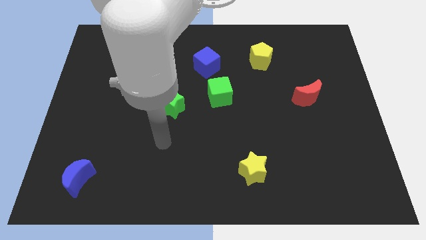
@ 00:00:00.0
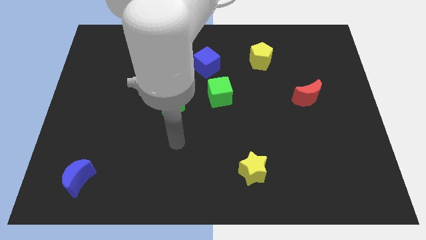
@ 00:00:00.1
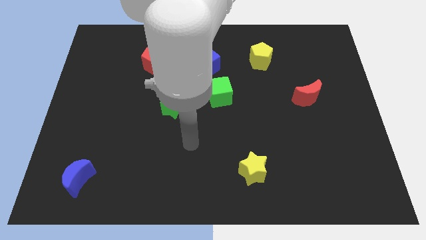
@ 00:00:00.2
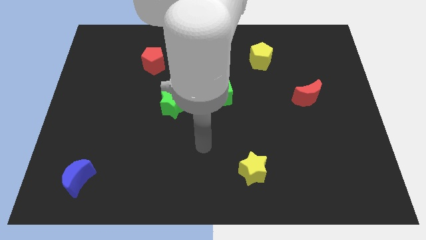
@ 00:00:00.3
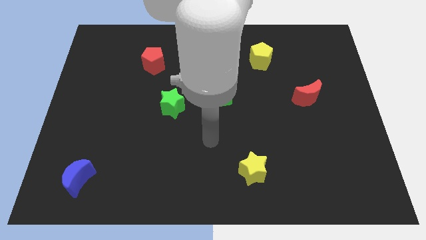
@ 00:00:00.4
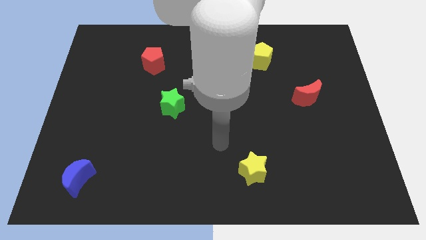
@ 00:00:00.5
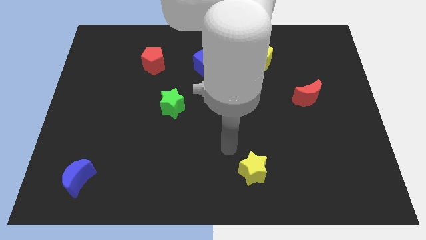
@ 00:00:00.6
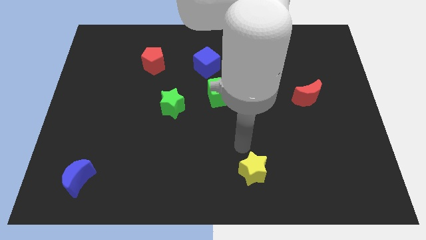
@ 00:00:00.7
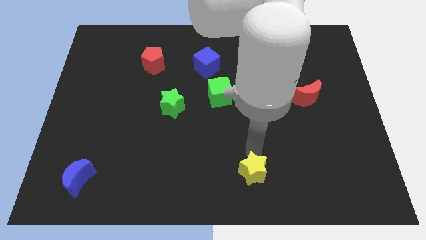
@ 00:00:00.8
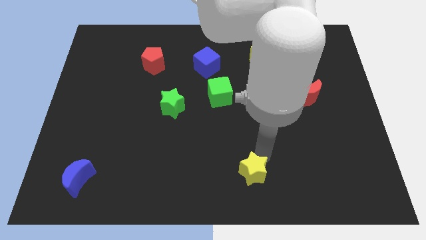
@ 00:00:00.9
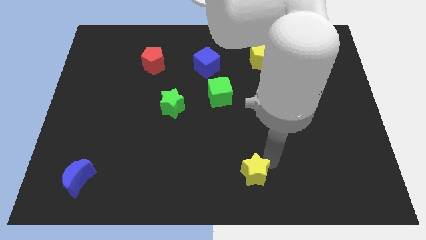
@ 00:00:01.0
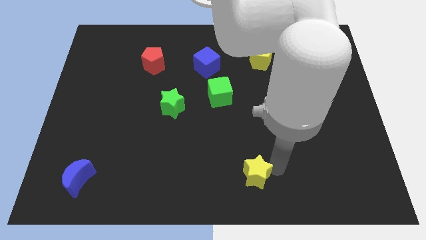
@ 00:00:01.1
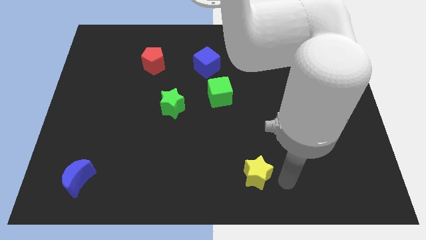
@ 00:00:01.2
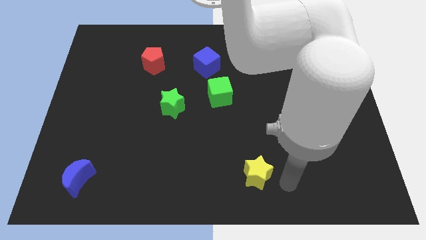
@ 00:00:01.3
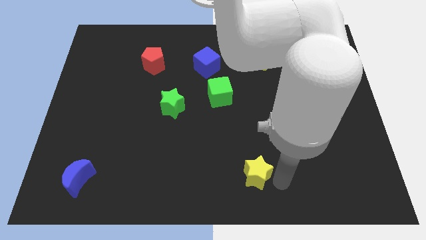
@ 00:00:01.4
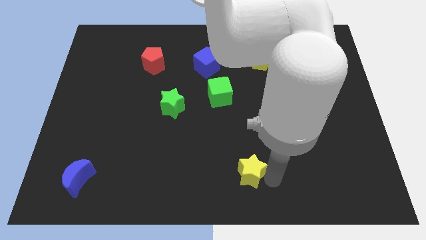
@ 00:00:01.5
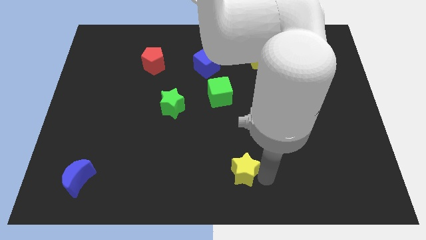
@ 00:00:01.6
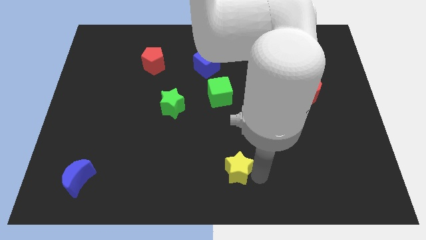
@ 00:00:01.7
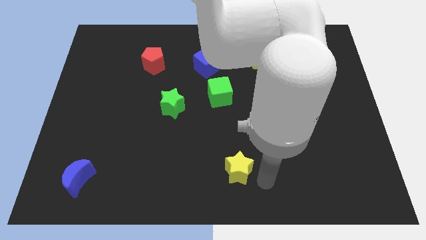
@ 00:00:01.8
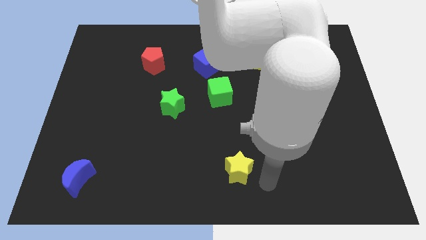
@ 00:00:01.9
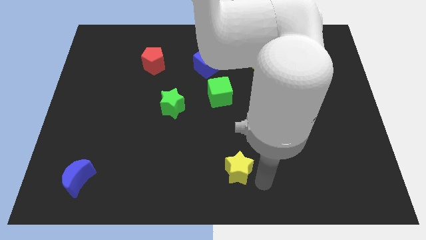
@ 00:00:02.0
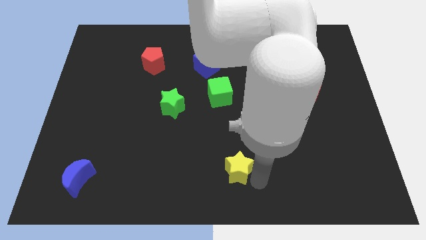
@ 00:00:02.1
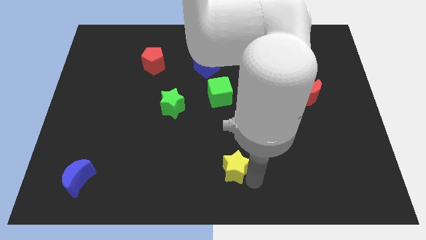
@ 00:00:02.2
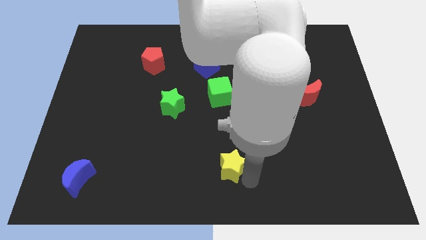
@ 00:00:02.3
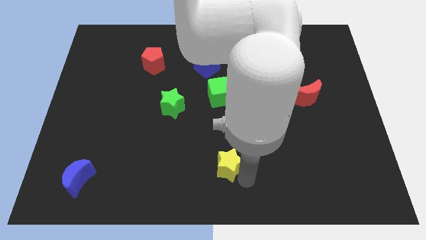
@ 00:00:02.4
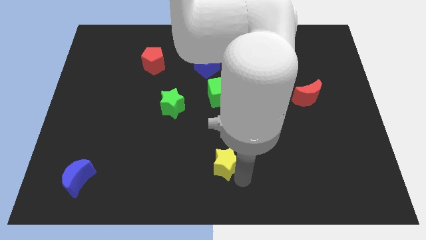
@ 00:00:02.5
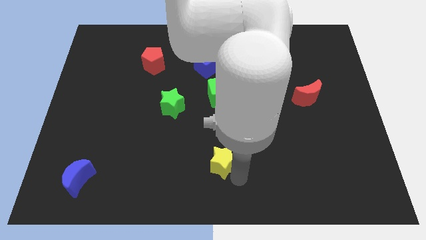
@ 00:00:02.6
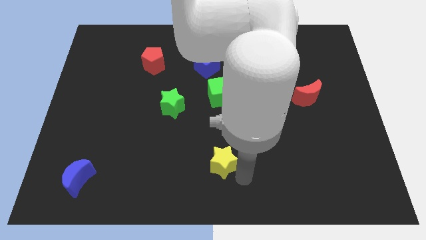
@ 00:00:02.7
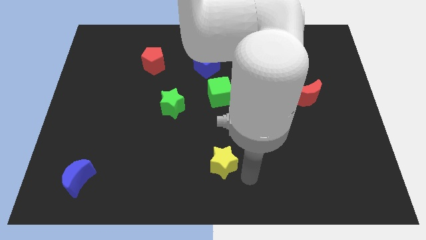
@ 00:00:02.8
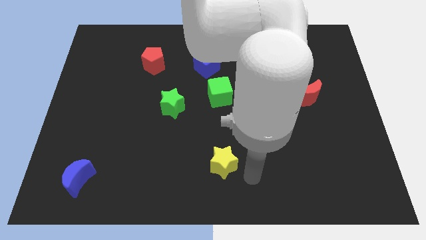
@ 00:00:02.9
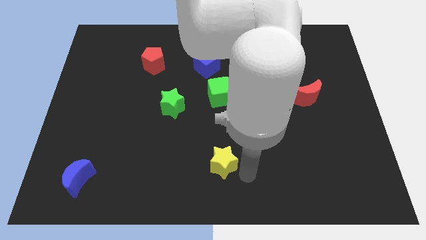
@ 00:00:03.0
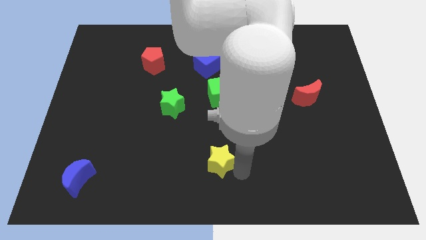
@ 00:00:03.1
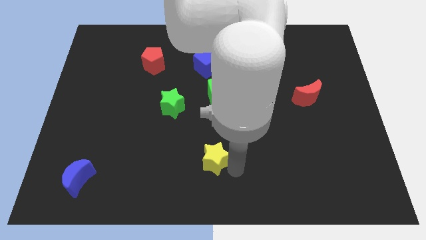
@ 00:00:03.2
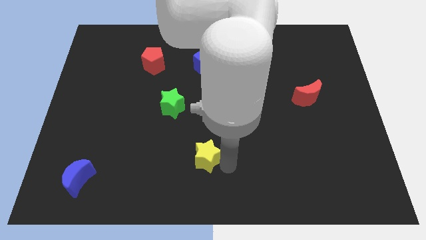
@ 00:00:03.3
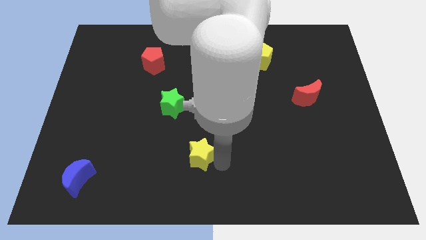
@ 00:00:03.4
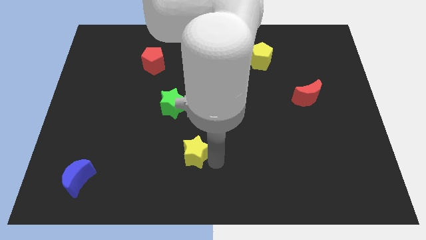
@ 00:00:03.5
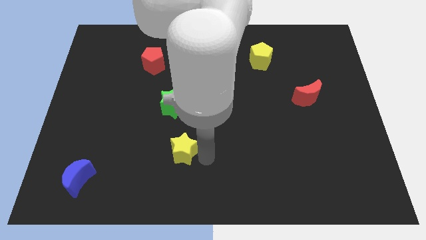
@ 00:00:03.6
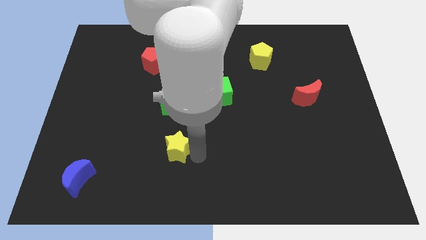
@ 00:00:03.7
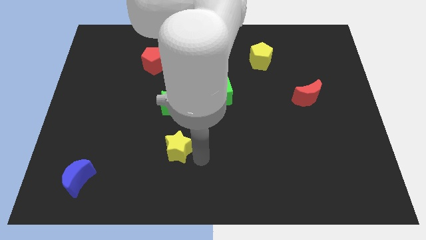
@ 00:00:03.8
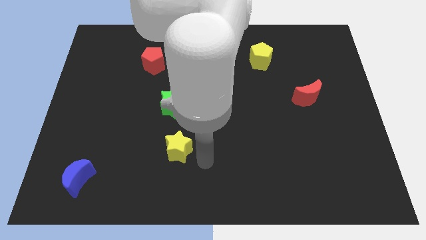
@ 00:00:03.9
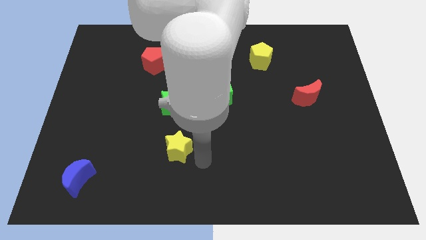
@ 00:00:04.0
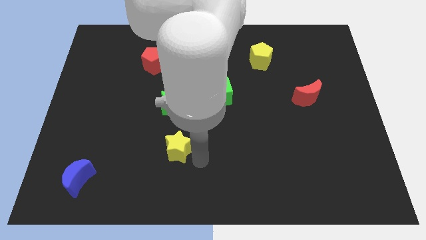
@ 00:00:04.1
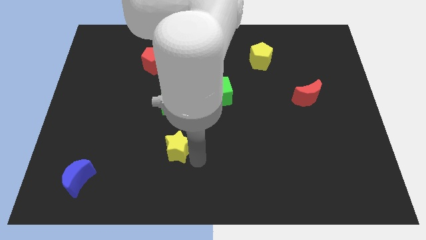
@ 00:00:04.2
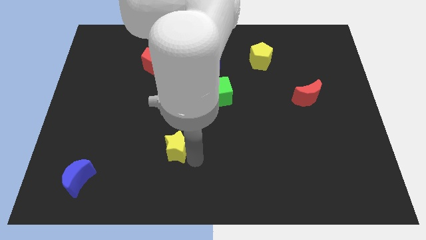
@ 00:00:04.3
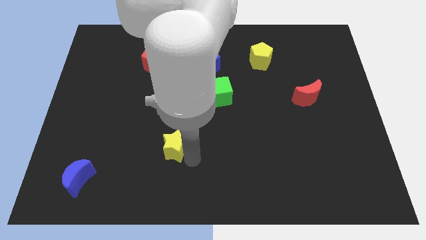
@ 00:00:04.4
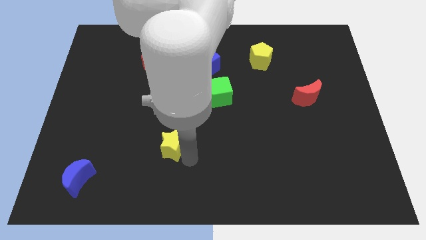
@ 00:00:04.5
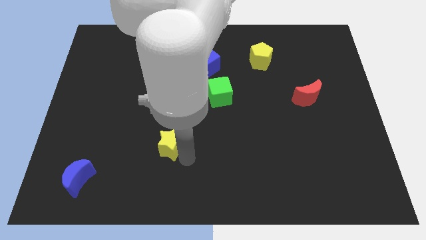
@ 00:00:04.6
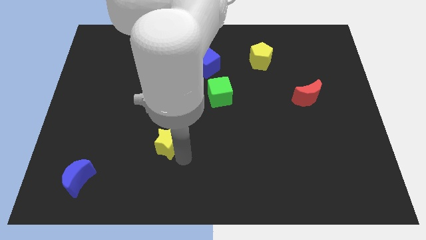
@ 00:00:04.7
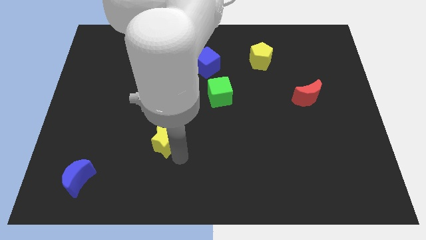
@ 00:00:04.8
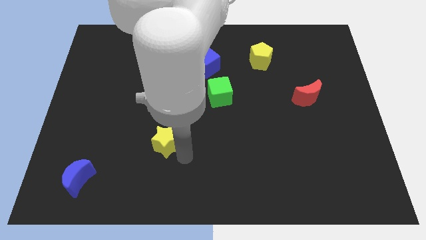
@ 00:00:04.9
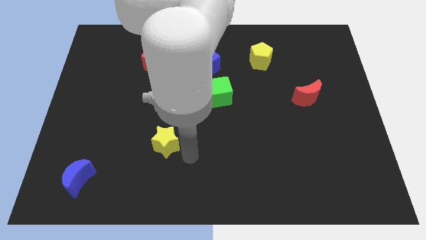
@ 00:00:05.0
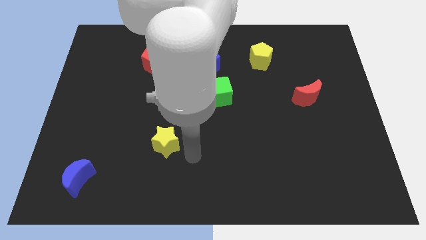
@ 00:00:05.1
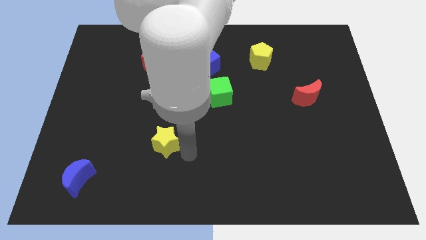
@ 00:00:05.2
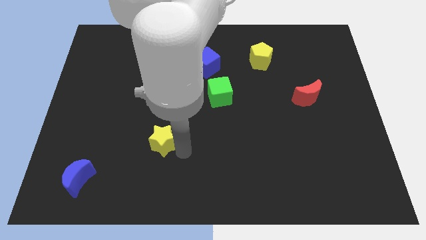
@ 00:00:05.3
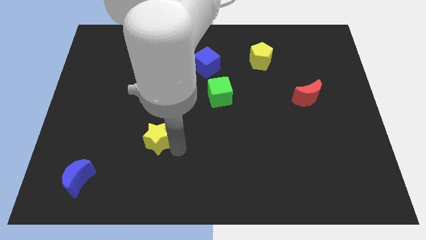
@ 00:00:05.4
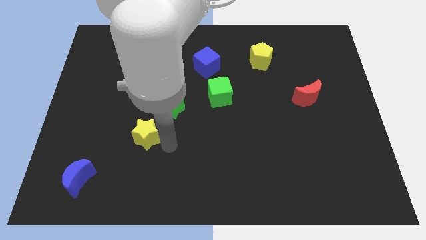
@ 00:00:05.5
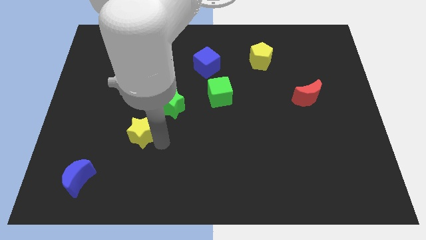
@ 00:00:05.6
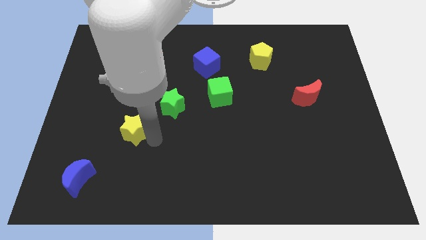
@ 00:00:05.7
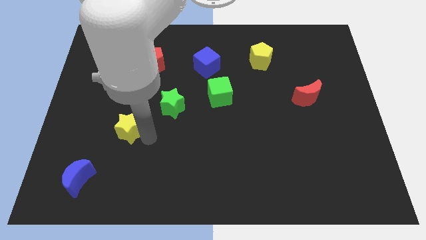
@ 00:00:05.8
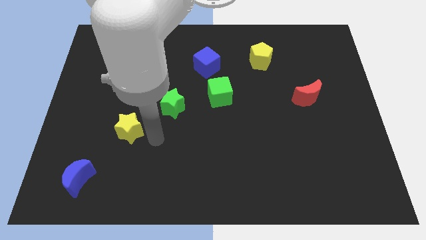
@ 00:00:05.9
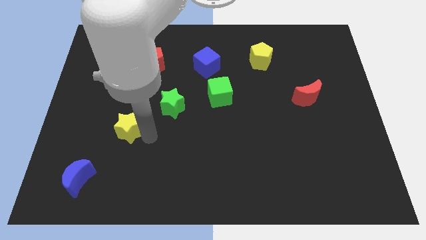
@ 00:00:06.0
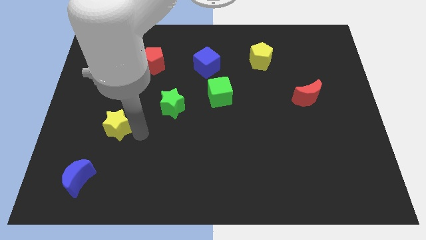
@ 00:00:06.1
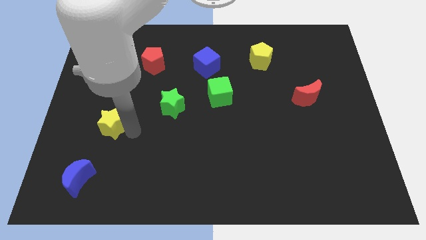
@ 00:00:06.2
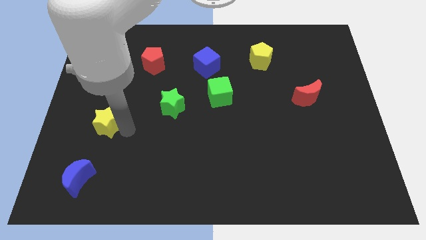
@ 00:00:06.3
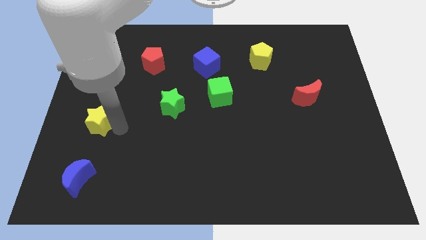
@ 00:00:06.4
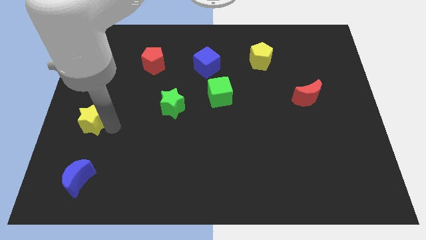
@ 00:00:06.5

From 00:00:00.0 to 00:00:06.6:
move the yellow star to the center left
